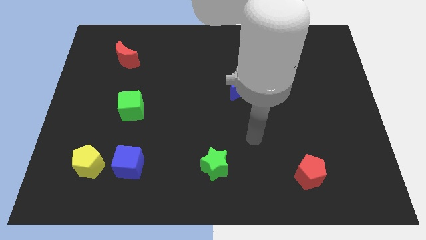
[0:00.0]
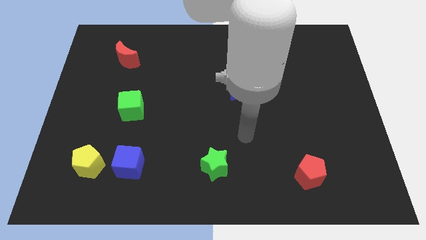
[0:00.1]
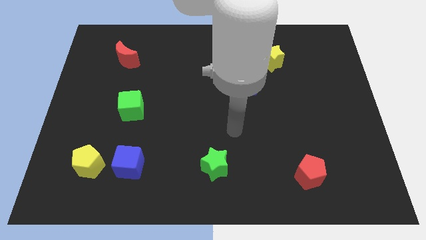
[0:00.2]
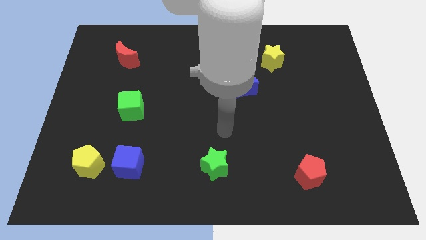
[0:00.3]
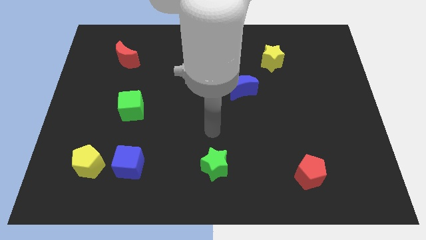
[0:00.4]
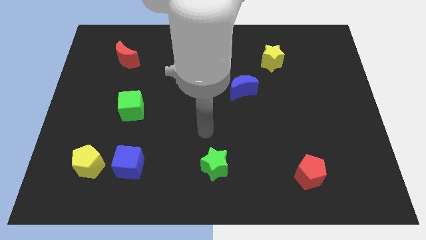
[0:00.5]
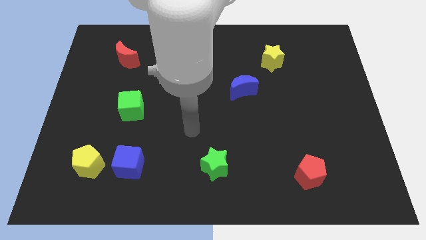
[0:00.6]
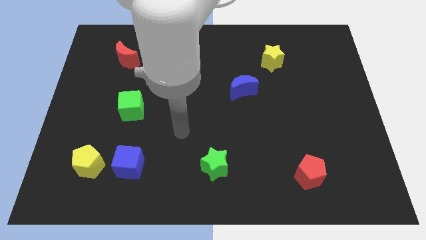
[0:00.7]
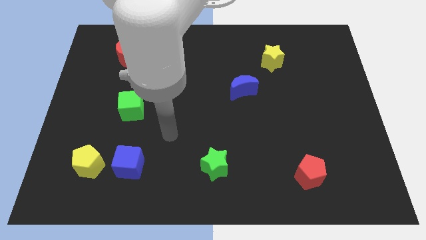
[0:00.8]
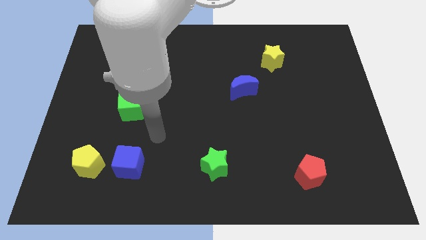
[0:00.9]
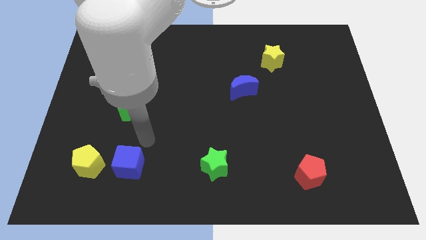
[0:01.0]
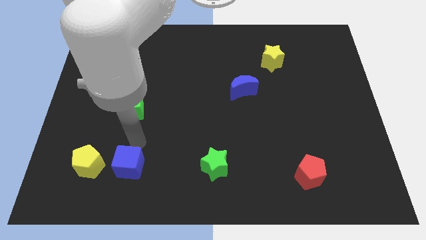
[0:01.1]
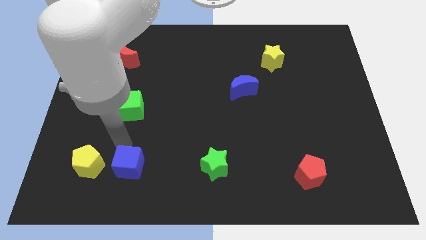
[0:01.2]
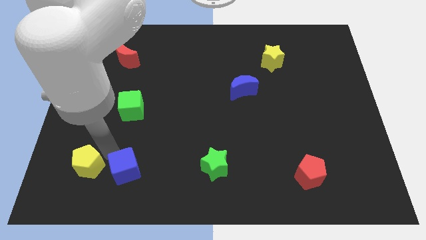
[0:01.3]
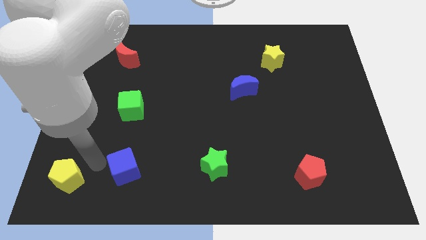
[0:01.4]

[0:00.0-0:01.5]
pull the blue cube apart from the yellow pentagon

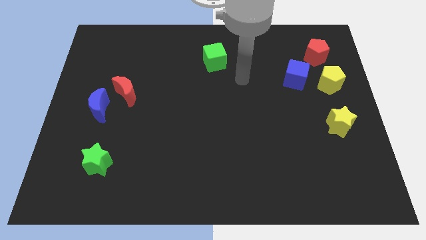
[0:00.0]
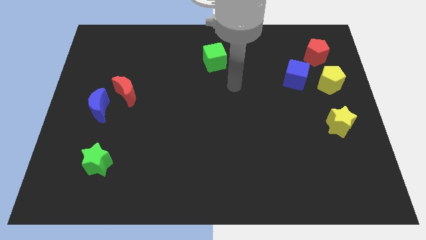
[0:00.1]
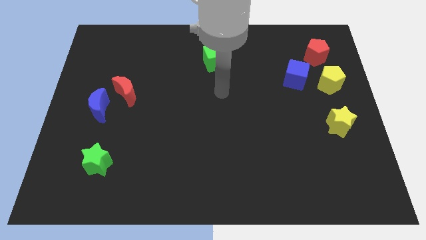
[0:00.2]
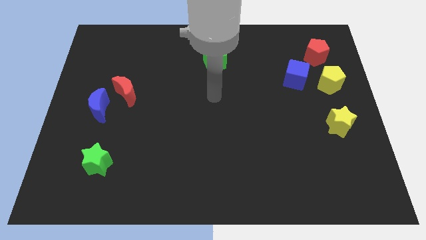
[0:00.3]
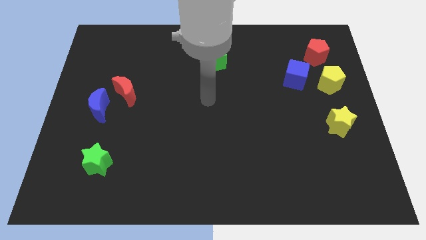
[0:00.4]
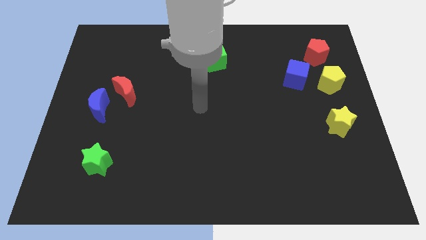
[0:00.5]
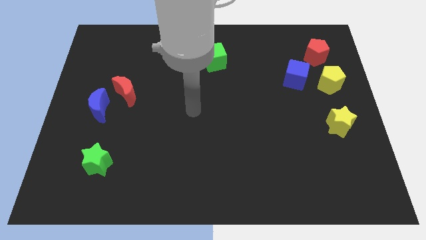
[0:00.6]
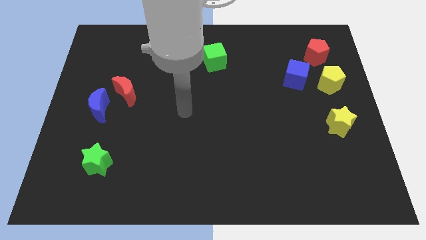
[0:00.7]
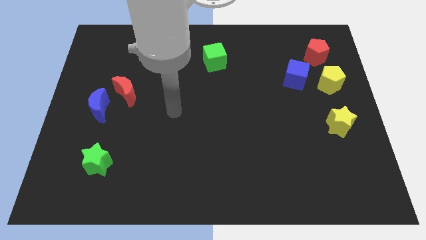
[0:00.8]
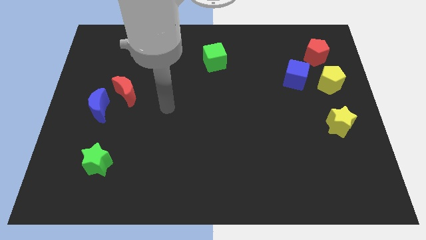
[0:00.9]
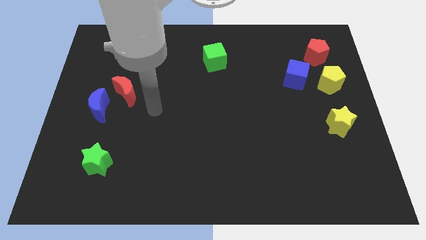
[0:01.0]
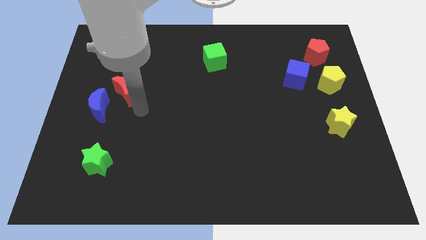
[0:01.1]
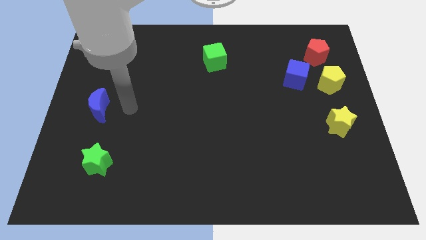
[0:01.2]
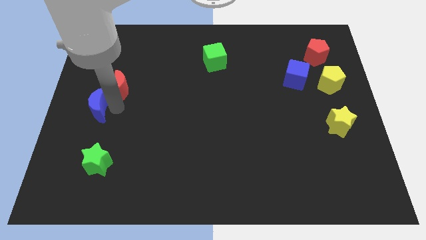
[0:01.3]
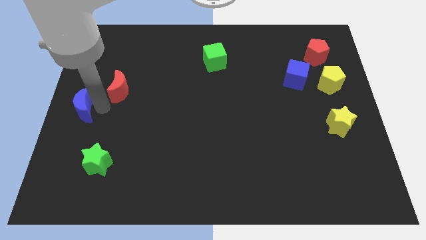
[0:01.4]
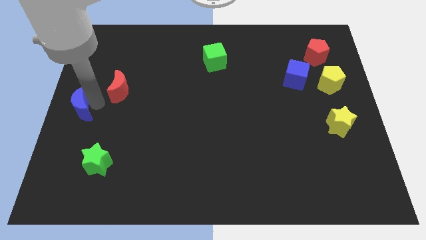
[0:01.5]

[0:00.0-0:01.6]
pull the red moon apart from the blue moon

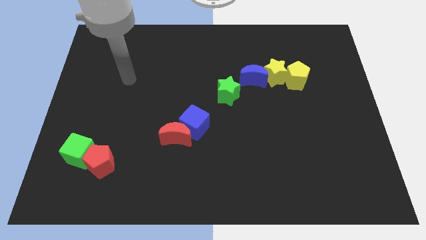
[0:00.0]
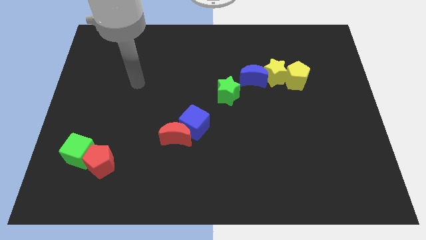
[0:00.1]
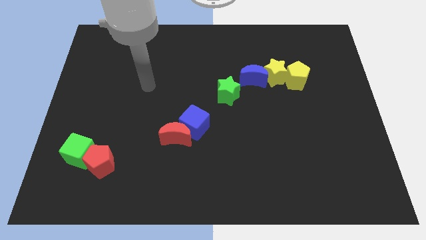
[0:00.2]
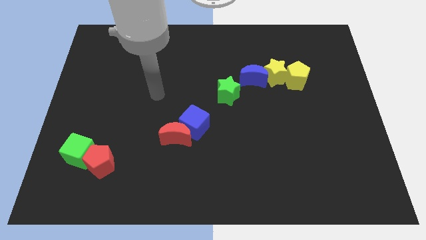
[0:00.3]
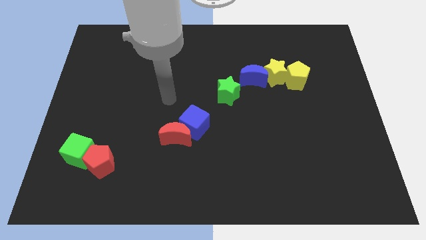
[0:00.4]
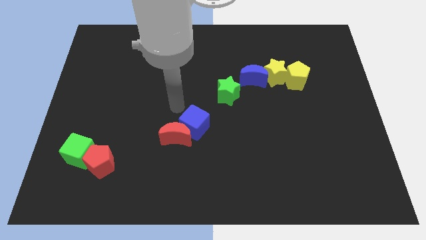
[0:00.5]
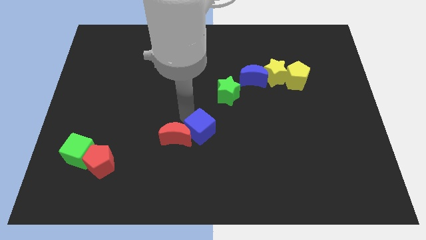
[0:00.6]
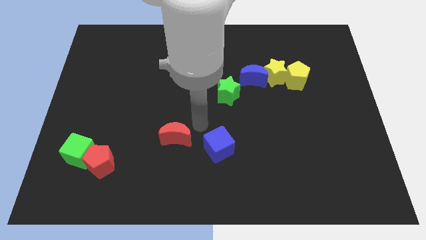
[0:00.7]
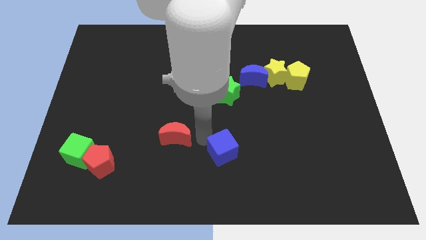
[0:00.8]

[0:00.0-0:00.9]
separate the red moon from the blue cube

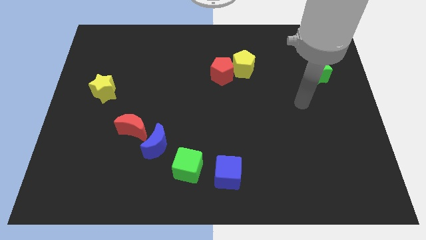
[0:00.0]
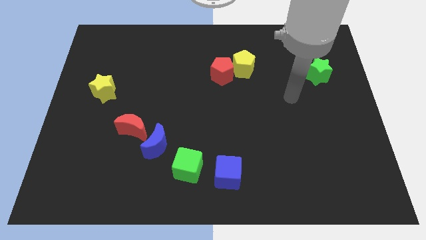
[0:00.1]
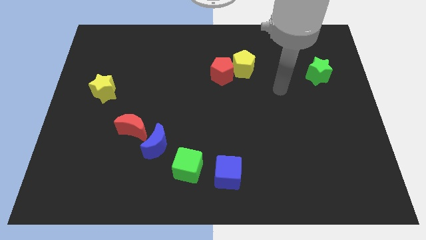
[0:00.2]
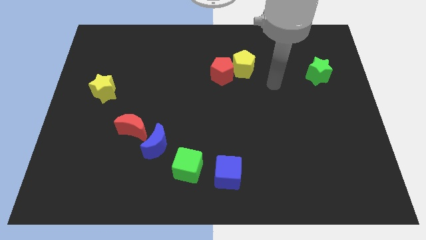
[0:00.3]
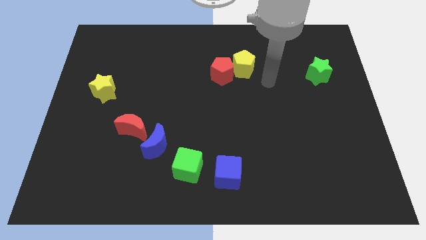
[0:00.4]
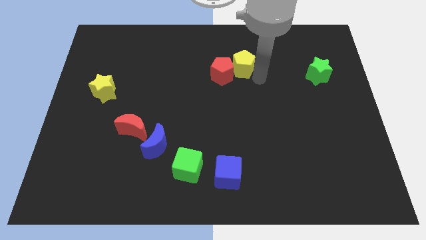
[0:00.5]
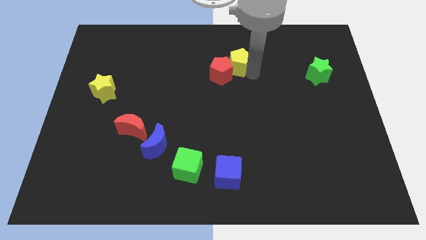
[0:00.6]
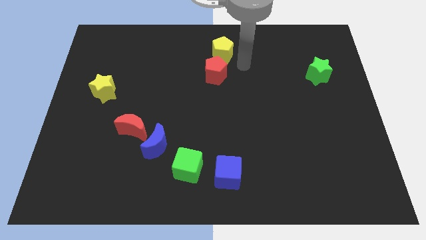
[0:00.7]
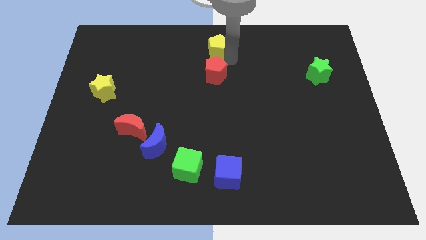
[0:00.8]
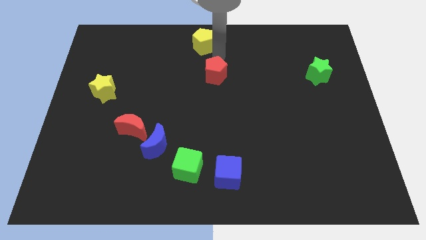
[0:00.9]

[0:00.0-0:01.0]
separate the red pentagon from the yellow pentagon

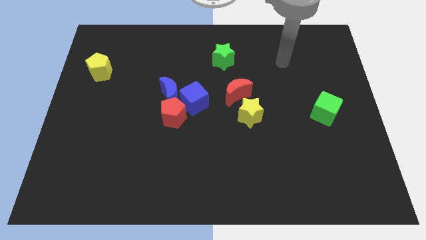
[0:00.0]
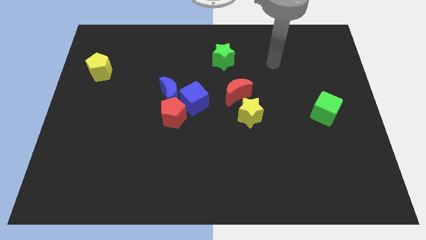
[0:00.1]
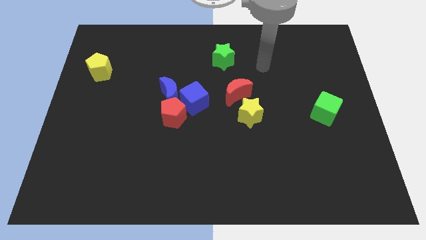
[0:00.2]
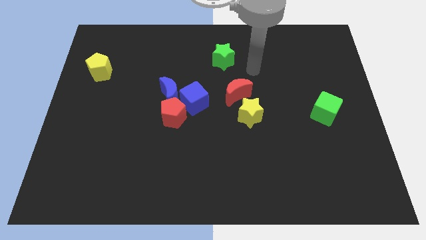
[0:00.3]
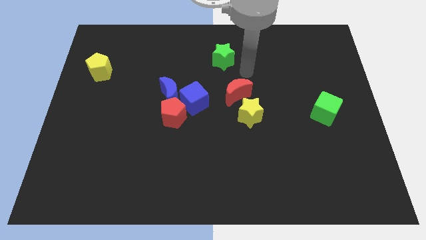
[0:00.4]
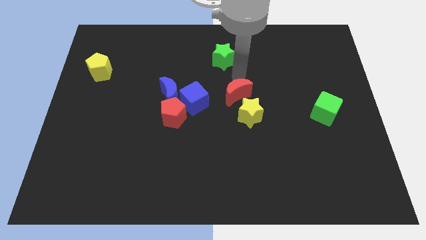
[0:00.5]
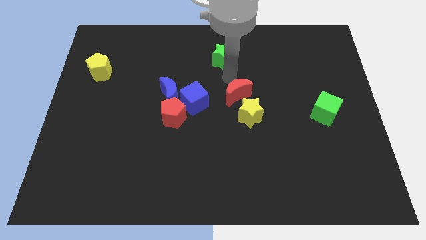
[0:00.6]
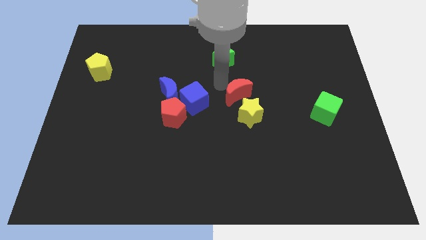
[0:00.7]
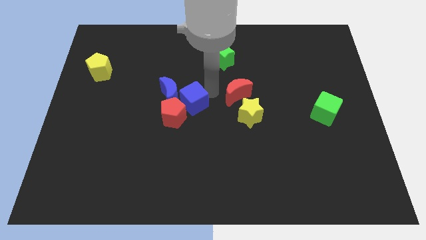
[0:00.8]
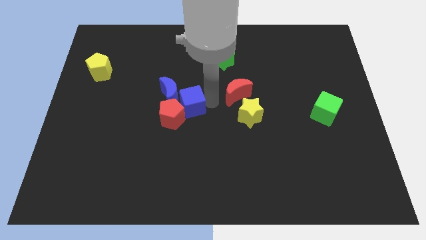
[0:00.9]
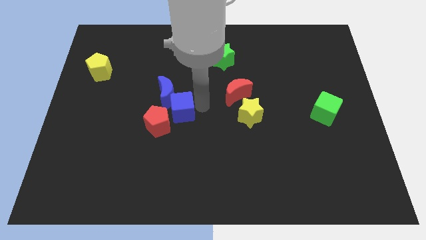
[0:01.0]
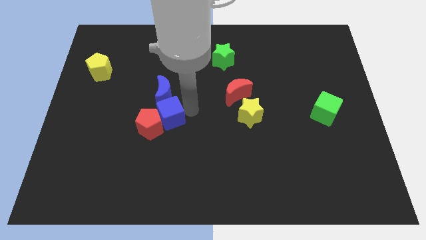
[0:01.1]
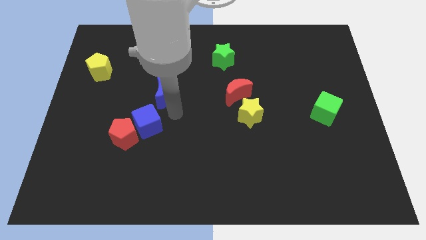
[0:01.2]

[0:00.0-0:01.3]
separate the blue moon from the blue cube and red pentagon

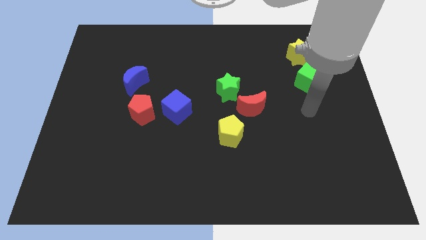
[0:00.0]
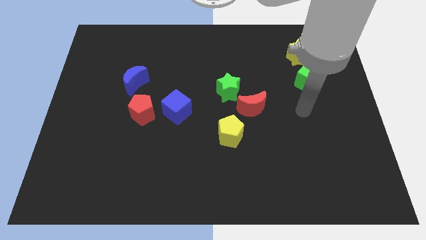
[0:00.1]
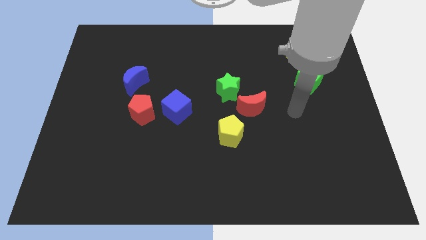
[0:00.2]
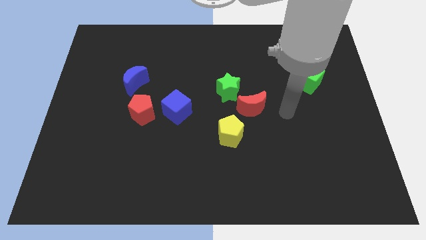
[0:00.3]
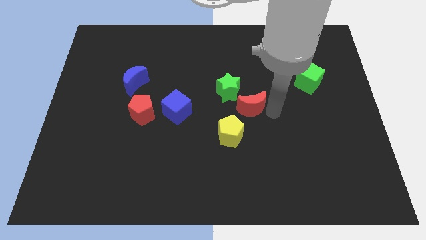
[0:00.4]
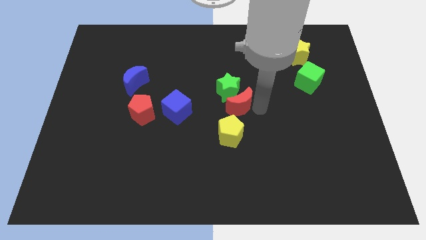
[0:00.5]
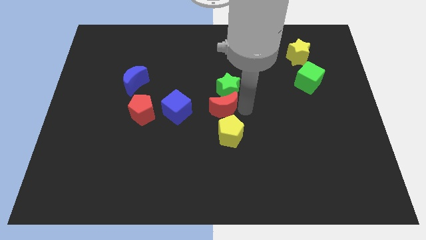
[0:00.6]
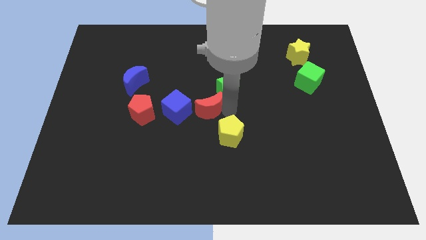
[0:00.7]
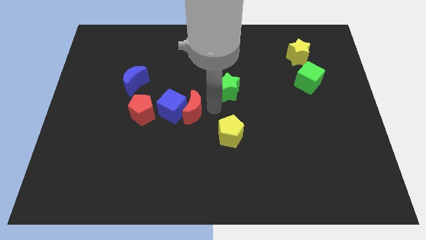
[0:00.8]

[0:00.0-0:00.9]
separate the green star from the red moon

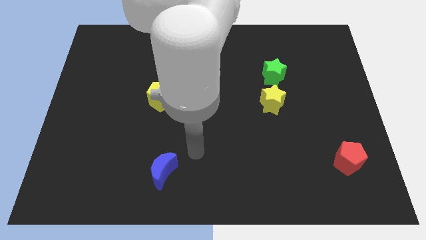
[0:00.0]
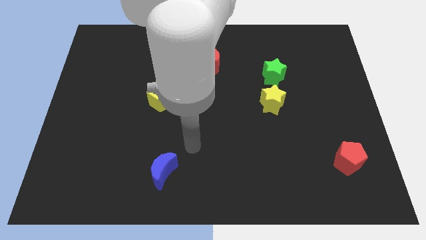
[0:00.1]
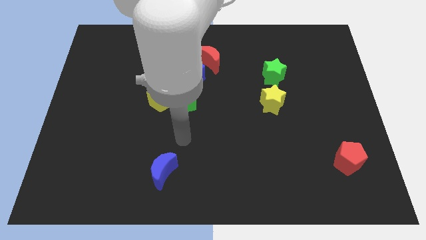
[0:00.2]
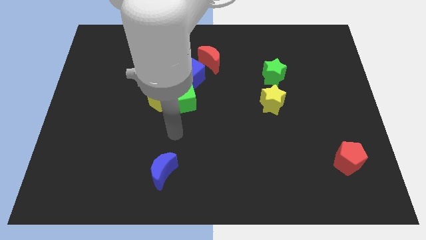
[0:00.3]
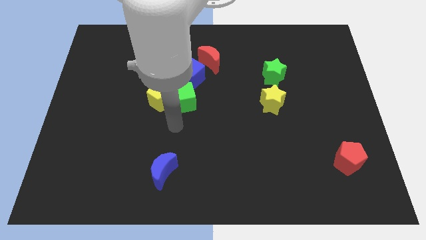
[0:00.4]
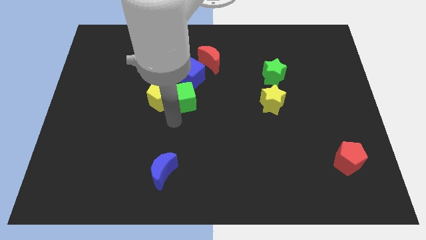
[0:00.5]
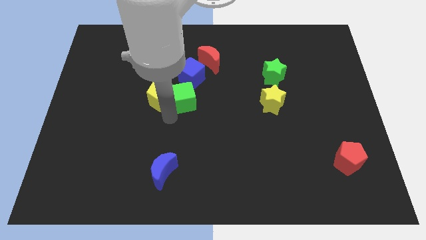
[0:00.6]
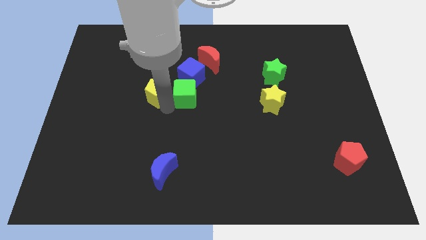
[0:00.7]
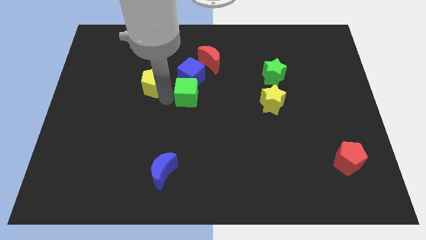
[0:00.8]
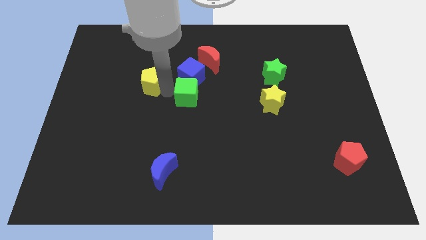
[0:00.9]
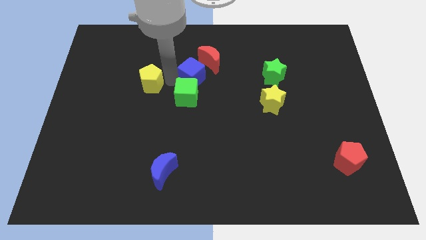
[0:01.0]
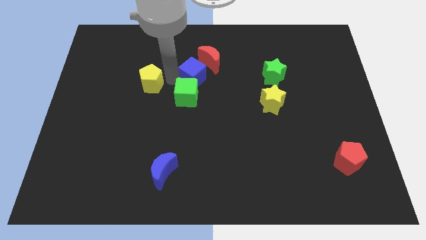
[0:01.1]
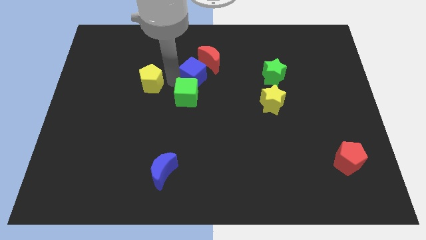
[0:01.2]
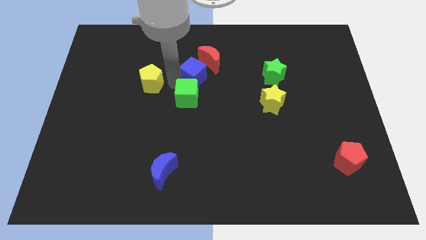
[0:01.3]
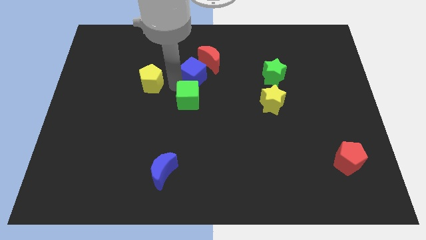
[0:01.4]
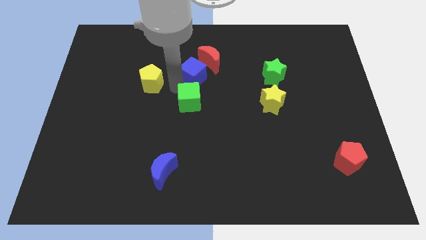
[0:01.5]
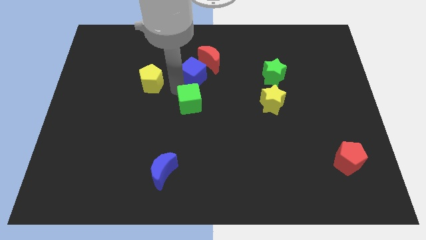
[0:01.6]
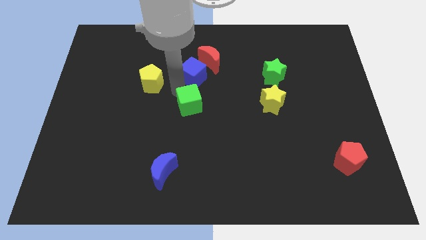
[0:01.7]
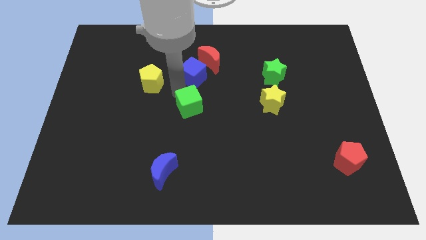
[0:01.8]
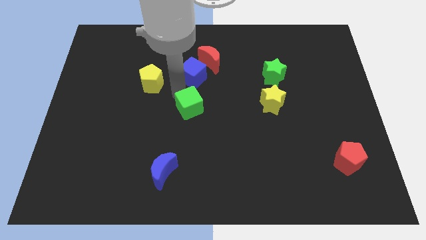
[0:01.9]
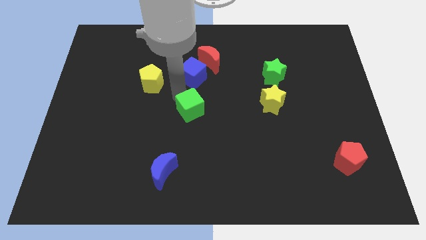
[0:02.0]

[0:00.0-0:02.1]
separate the green cube from the yellow pentagon and blue cube
